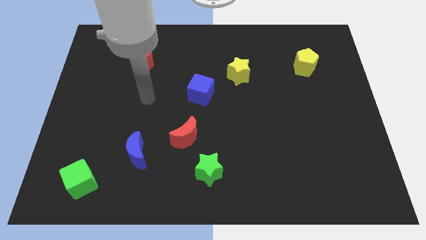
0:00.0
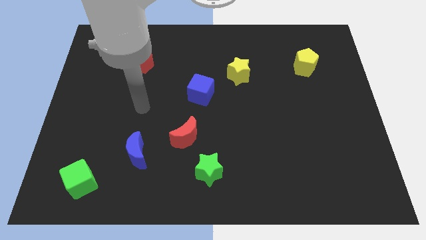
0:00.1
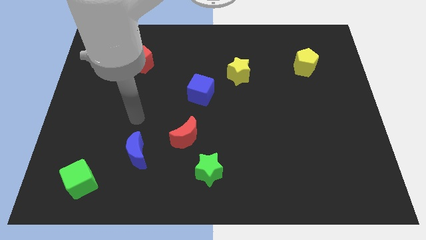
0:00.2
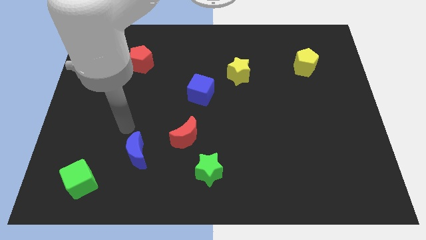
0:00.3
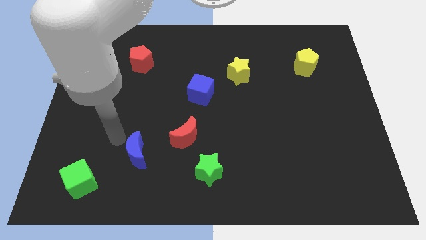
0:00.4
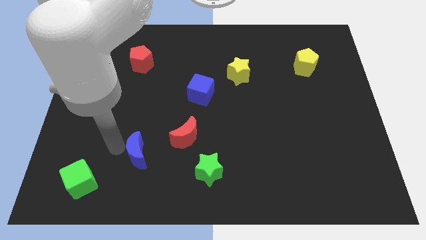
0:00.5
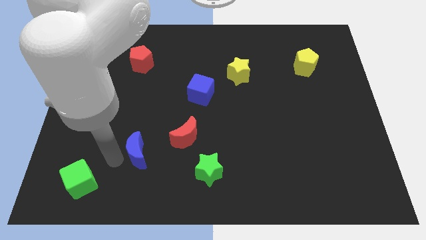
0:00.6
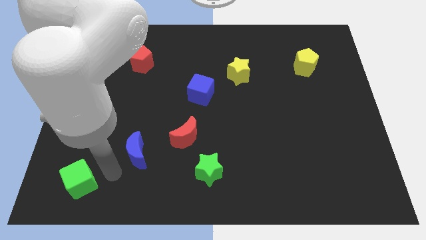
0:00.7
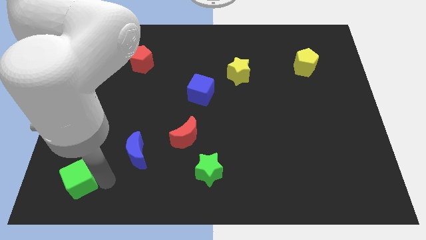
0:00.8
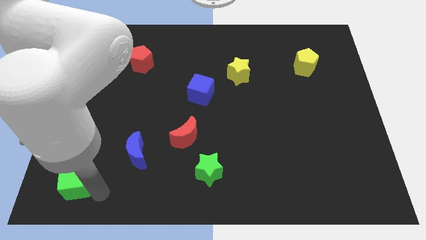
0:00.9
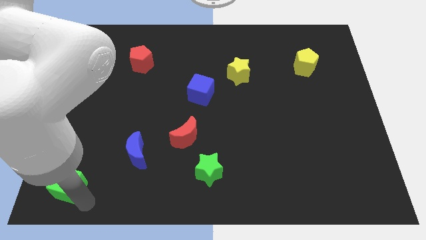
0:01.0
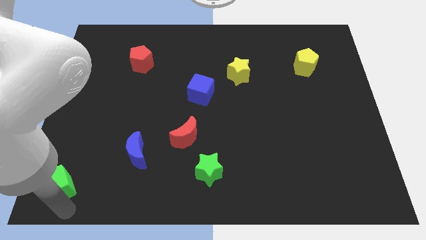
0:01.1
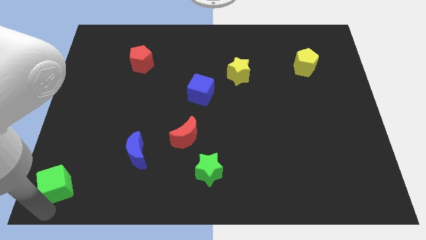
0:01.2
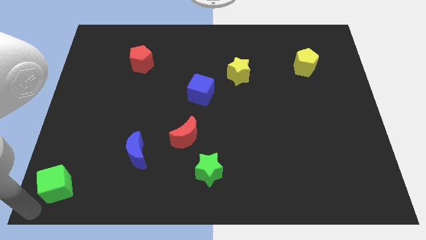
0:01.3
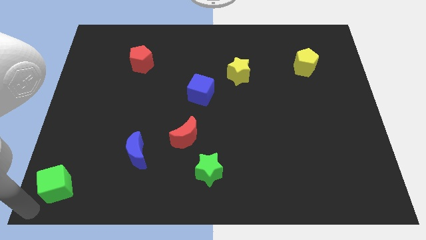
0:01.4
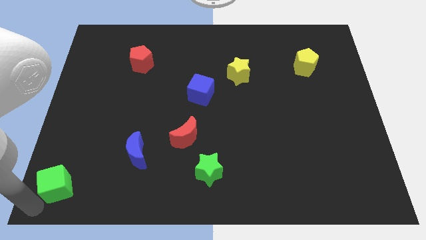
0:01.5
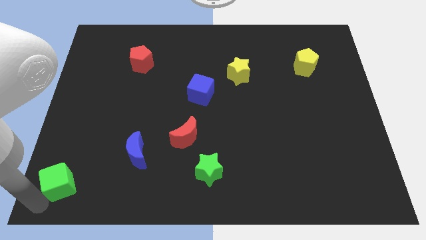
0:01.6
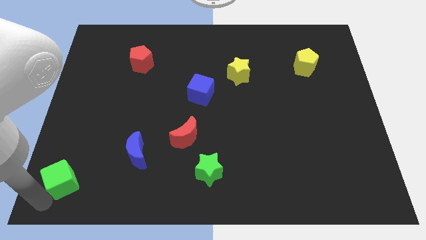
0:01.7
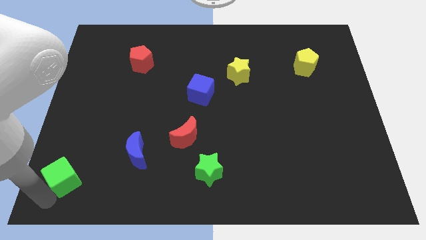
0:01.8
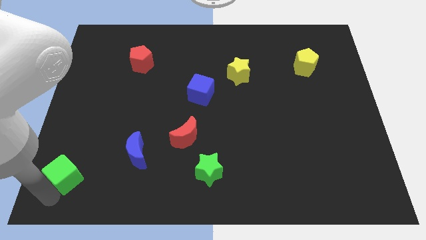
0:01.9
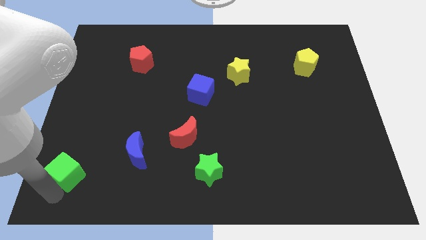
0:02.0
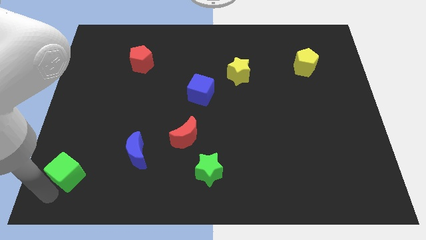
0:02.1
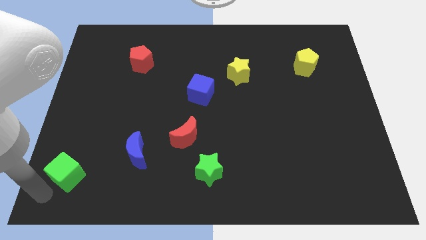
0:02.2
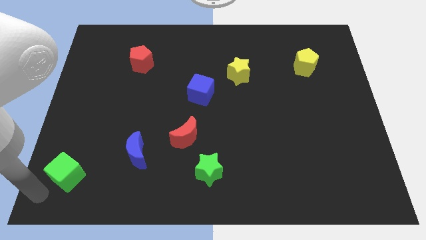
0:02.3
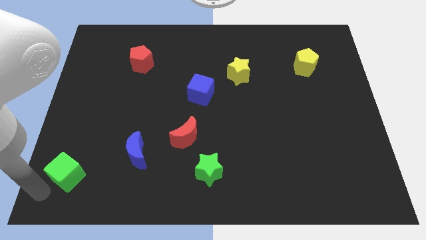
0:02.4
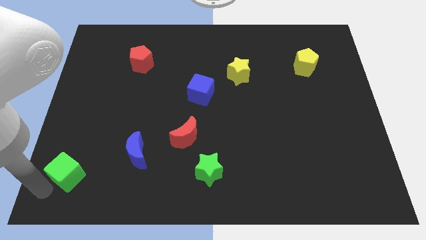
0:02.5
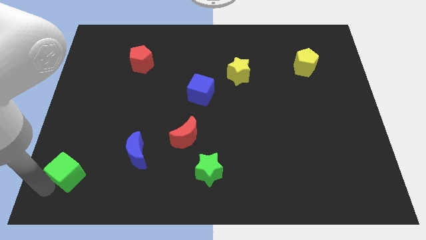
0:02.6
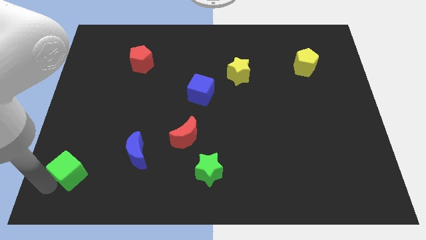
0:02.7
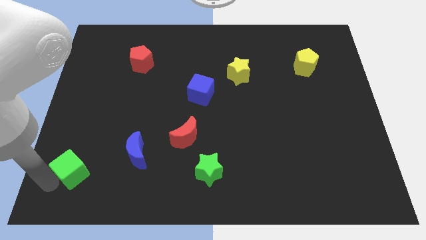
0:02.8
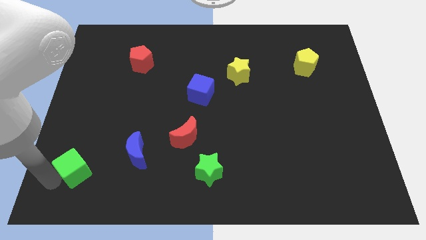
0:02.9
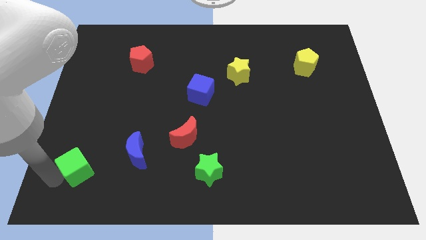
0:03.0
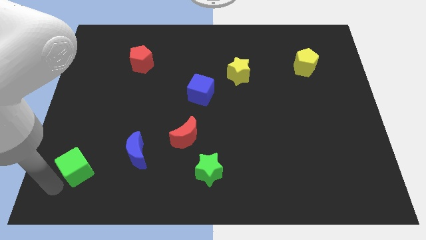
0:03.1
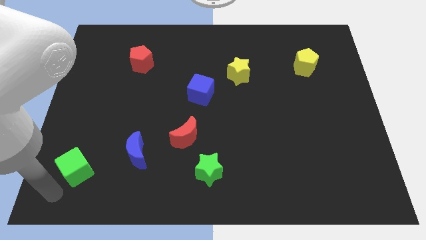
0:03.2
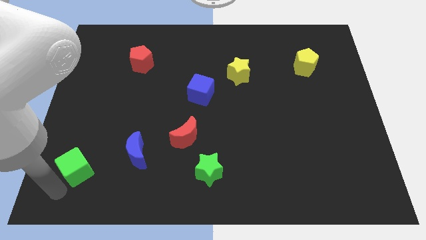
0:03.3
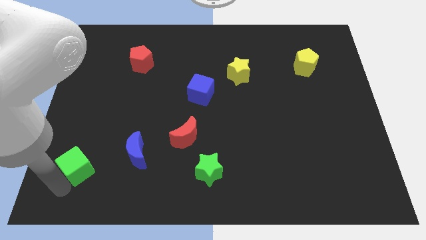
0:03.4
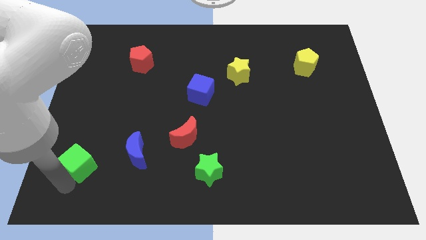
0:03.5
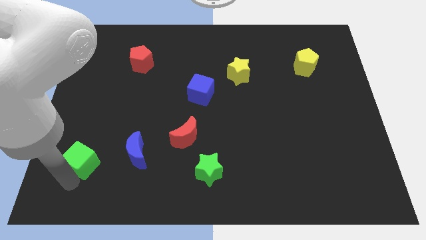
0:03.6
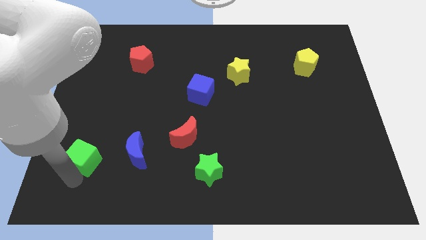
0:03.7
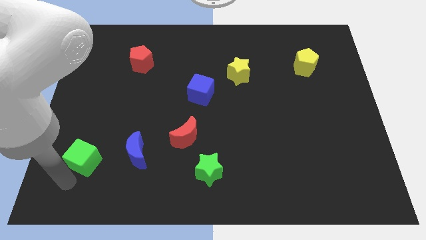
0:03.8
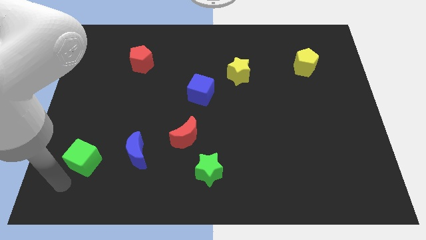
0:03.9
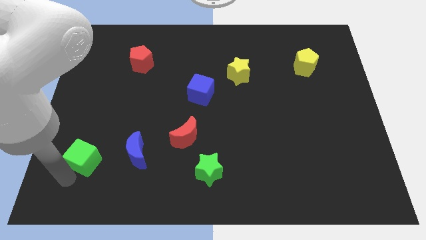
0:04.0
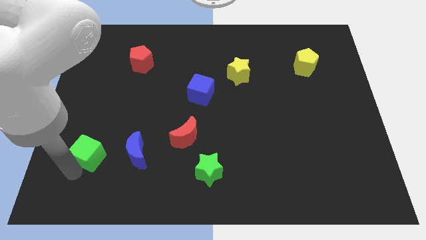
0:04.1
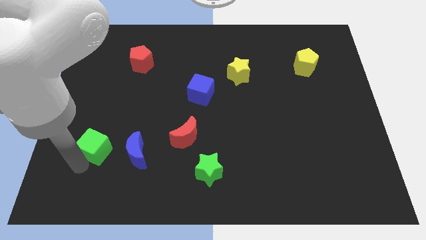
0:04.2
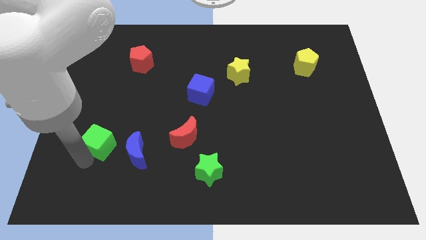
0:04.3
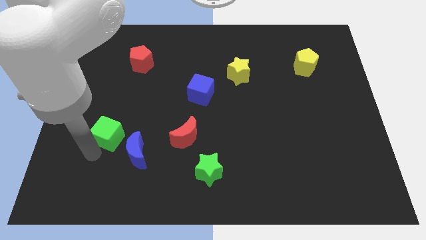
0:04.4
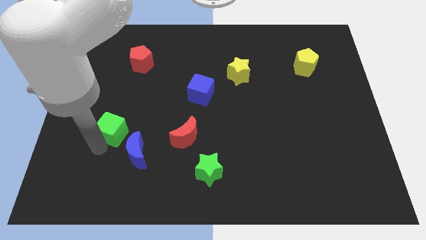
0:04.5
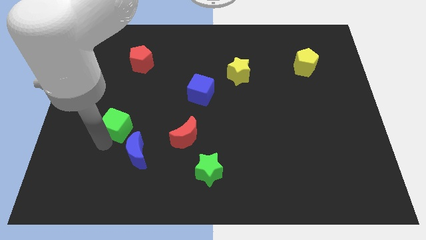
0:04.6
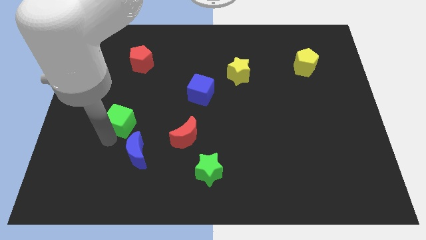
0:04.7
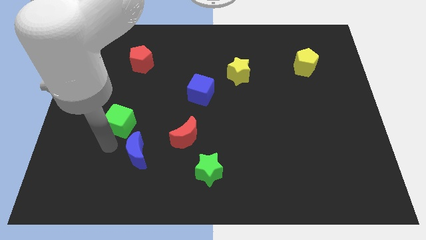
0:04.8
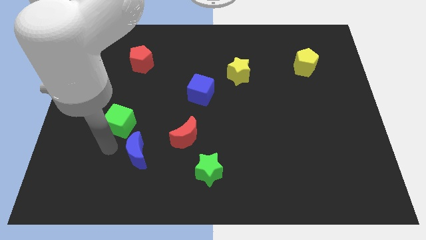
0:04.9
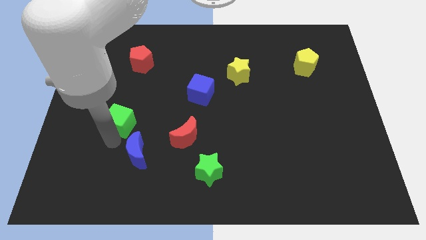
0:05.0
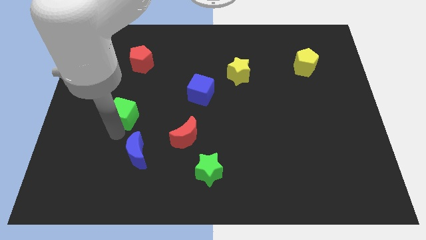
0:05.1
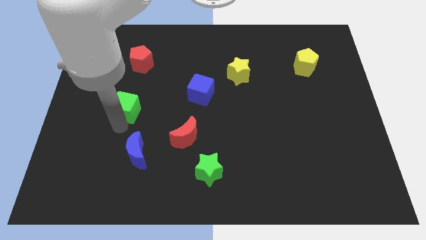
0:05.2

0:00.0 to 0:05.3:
push the green cube below the red pentagon

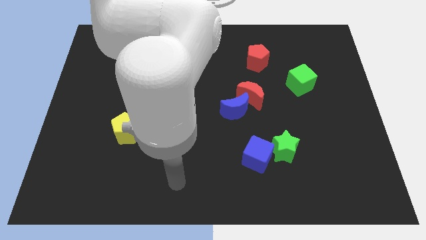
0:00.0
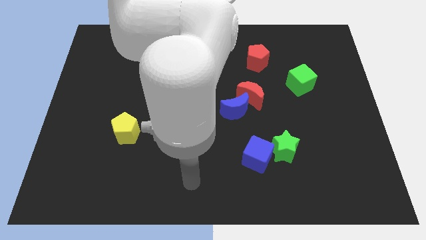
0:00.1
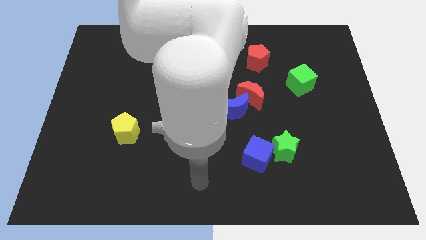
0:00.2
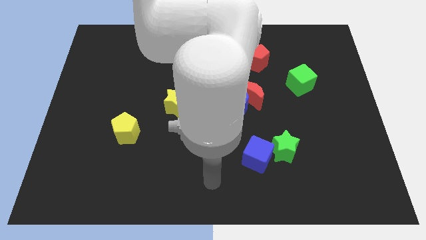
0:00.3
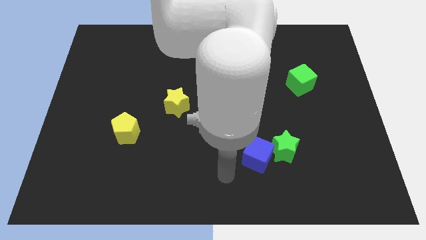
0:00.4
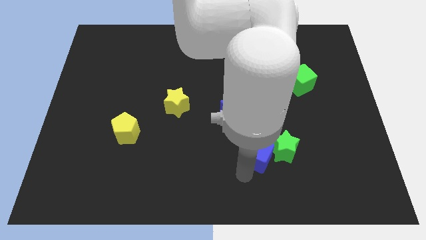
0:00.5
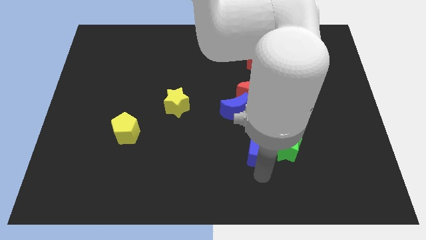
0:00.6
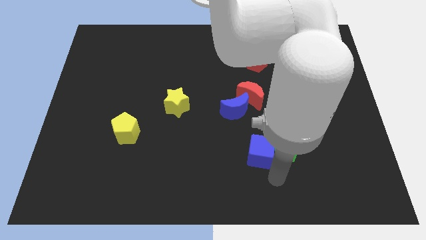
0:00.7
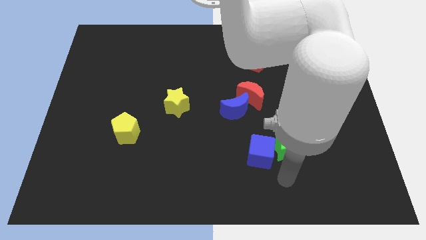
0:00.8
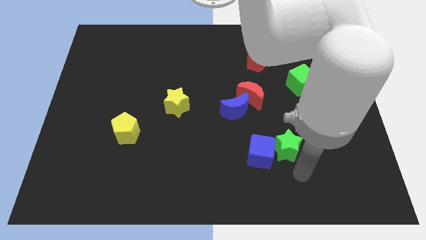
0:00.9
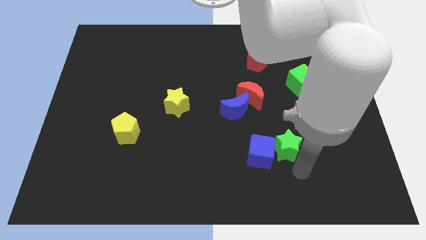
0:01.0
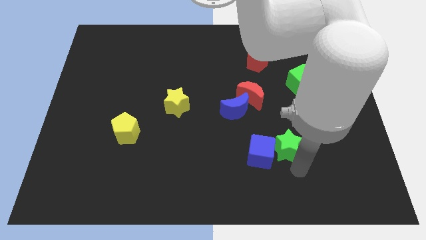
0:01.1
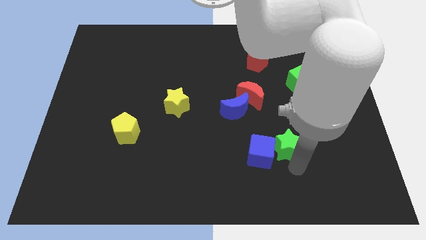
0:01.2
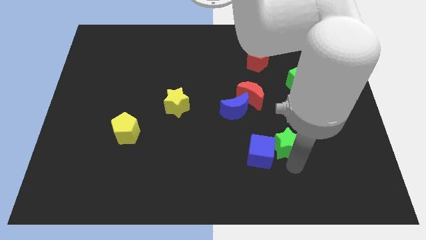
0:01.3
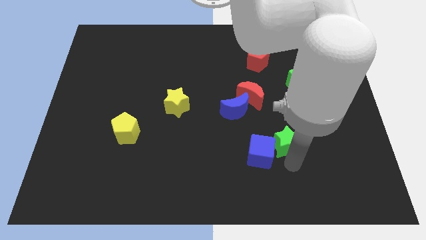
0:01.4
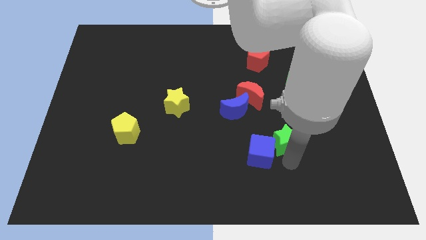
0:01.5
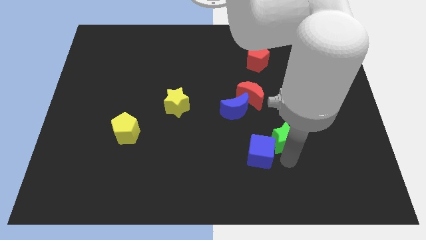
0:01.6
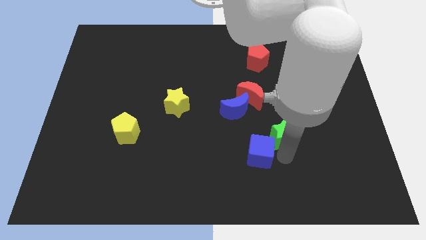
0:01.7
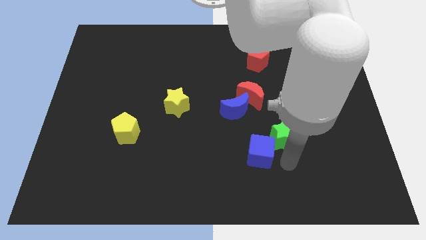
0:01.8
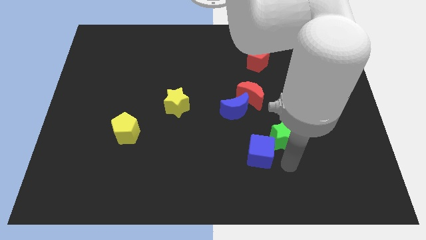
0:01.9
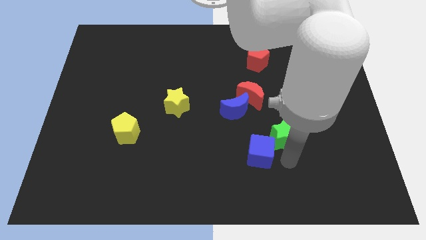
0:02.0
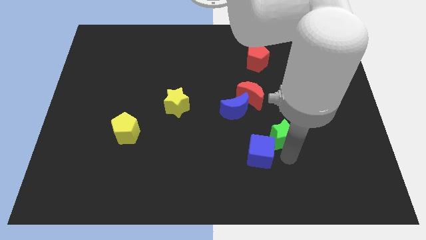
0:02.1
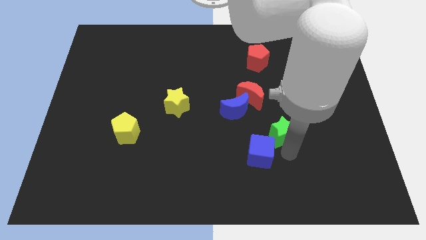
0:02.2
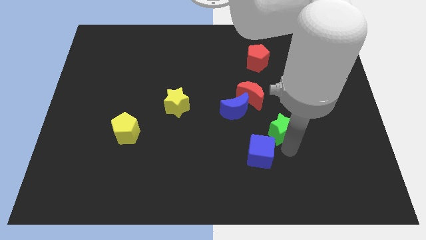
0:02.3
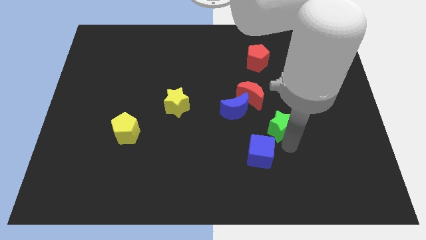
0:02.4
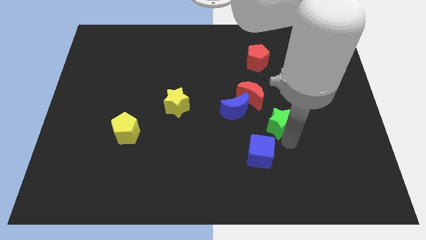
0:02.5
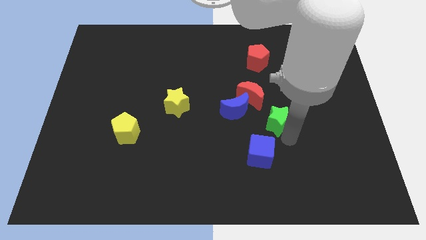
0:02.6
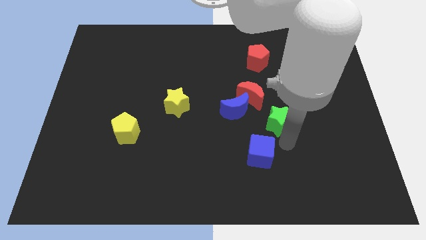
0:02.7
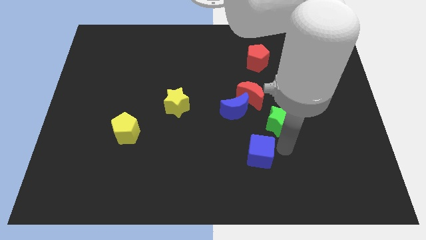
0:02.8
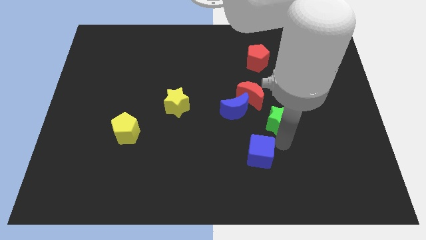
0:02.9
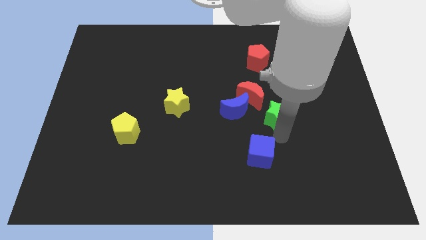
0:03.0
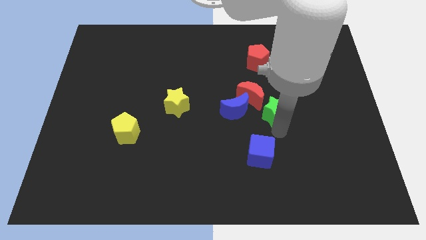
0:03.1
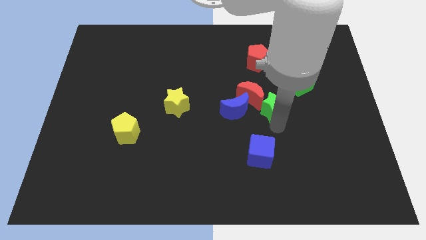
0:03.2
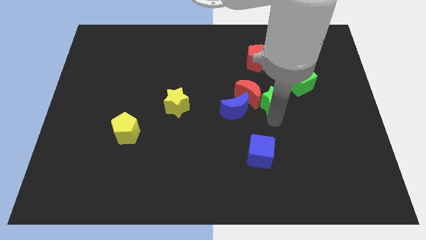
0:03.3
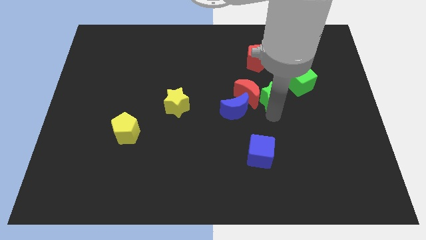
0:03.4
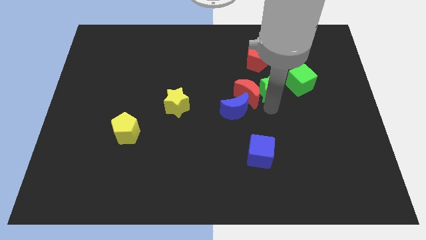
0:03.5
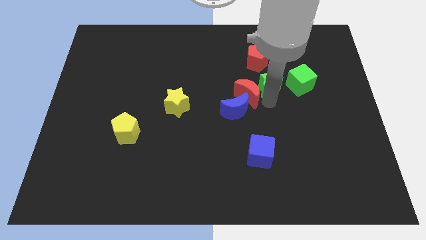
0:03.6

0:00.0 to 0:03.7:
push the green star to the bottom right side of the red pentagon
